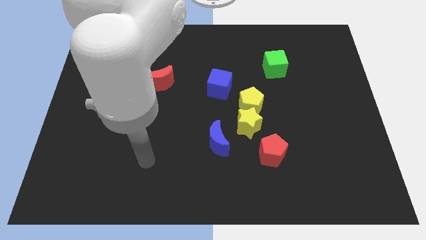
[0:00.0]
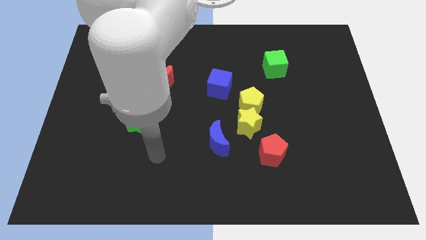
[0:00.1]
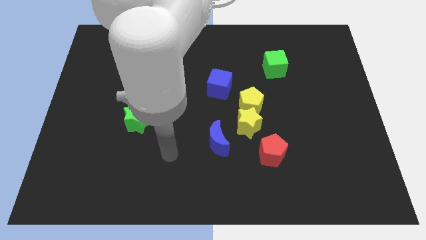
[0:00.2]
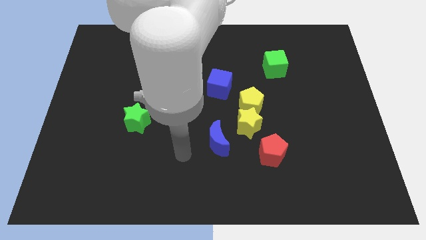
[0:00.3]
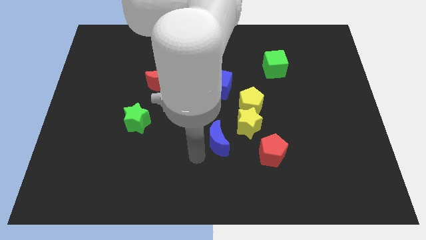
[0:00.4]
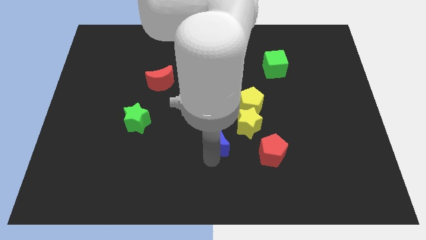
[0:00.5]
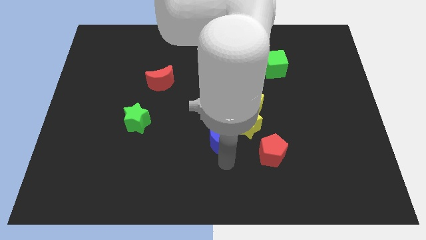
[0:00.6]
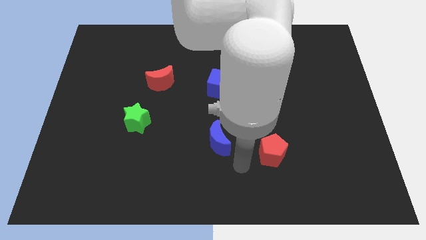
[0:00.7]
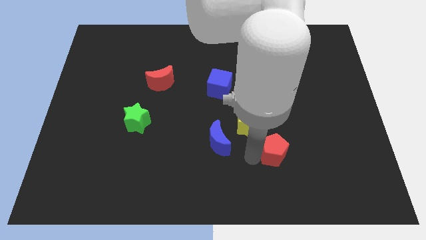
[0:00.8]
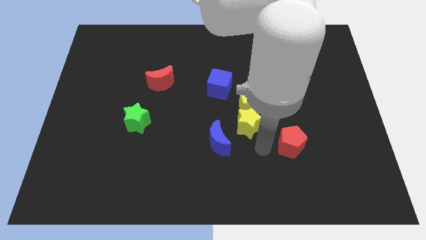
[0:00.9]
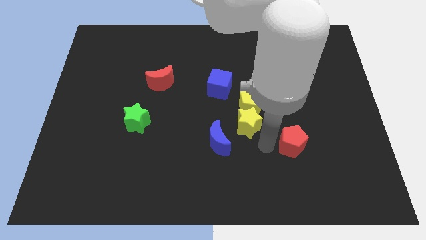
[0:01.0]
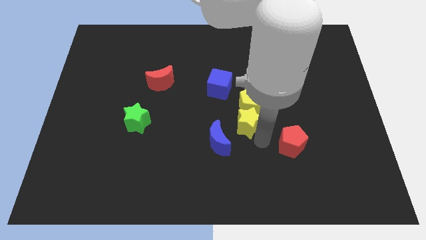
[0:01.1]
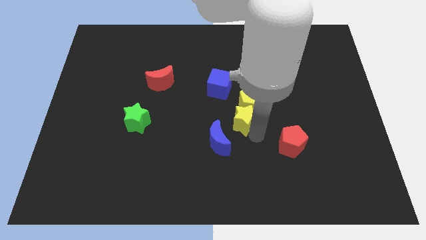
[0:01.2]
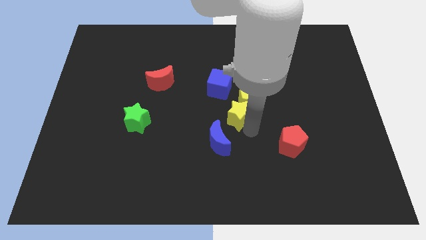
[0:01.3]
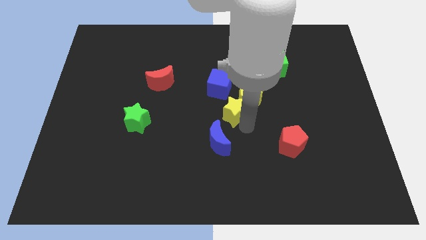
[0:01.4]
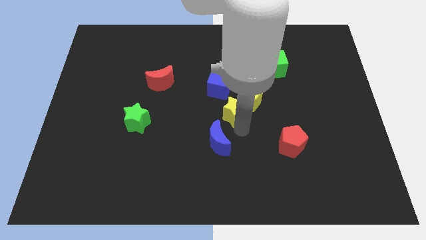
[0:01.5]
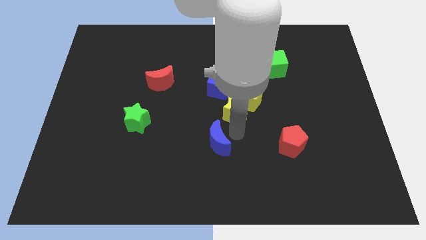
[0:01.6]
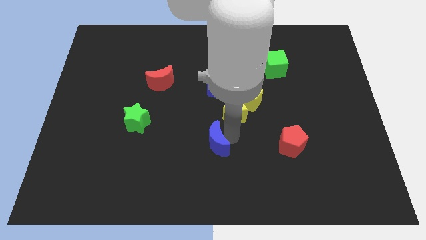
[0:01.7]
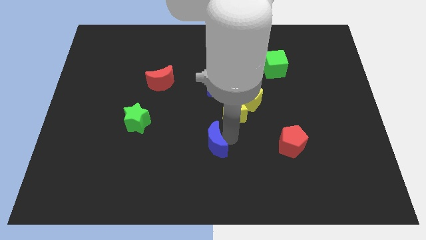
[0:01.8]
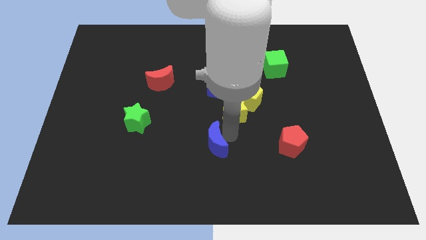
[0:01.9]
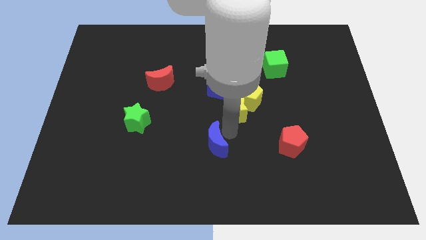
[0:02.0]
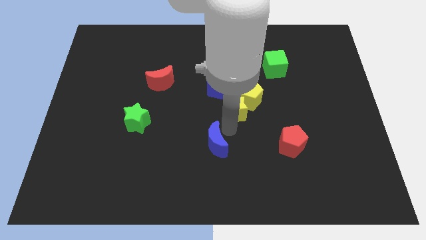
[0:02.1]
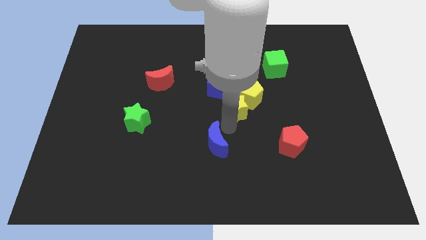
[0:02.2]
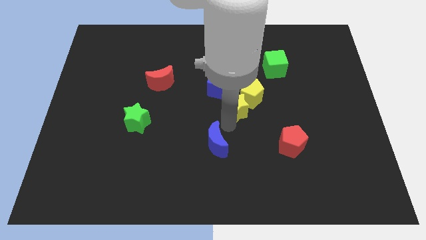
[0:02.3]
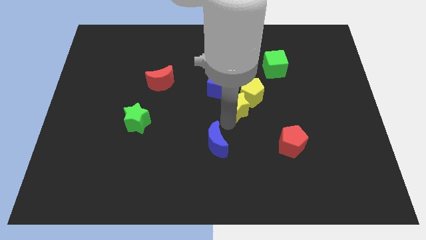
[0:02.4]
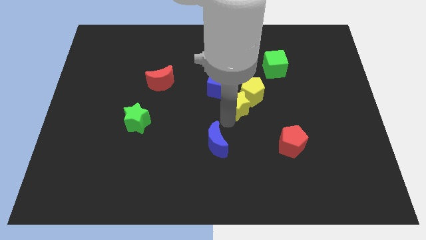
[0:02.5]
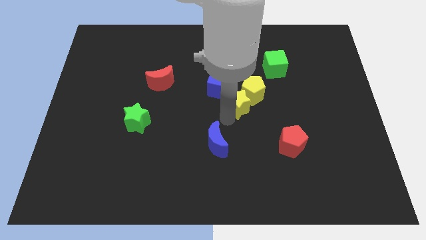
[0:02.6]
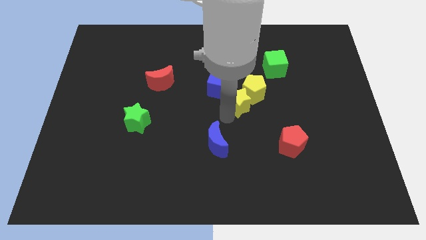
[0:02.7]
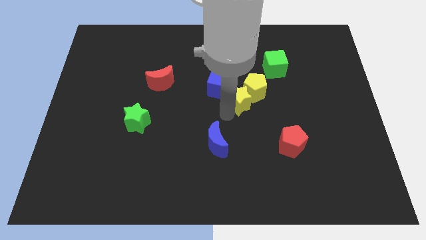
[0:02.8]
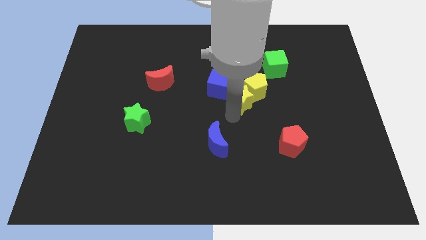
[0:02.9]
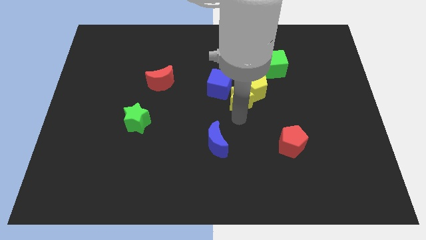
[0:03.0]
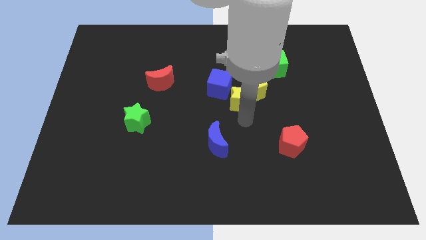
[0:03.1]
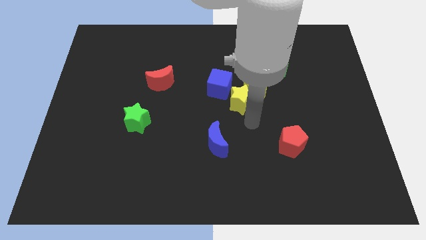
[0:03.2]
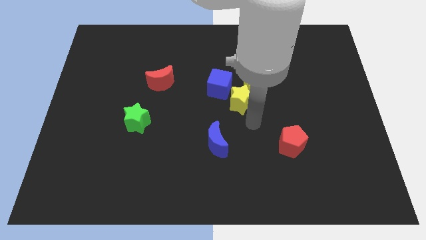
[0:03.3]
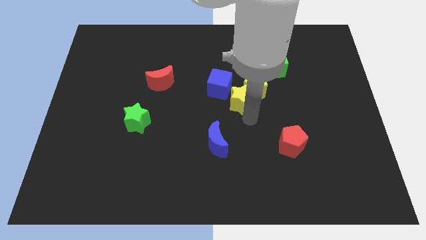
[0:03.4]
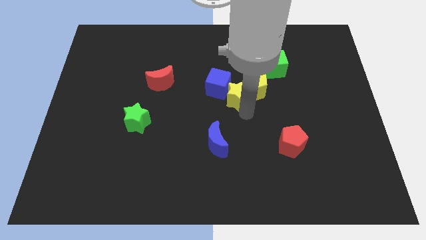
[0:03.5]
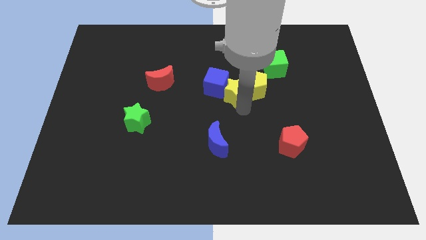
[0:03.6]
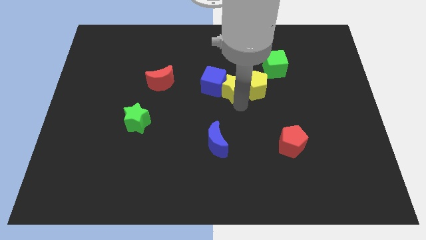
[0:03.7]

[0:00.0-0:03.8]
move the yellow star away from the group of blocks

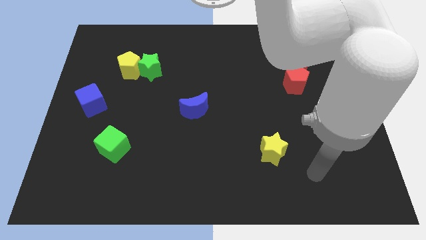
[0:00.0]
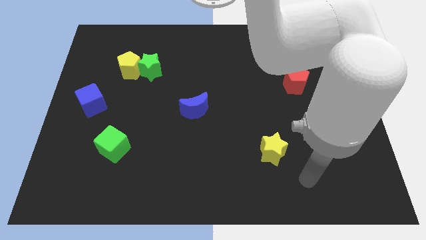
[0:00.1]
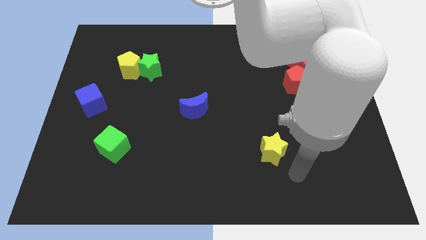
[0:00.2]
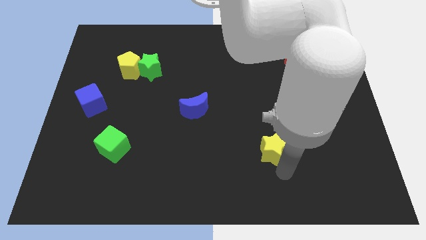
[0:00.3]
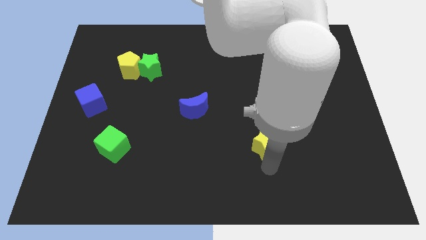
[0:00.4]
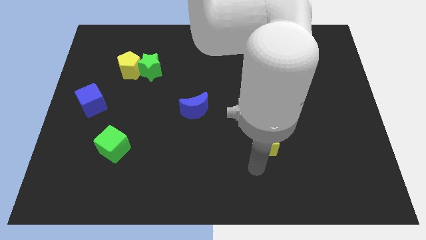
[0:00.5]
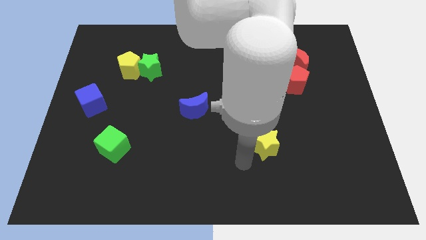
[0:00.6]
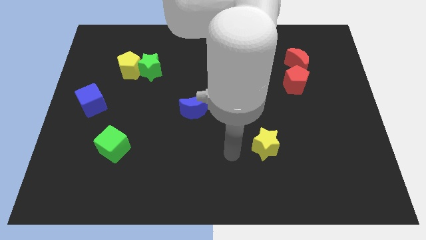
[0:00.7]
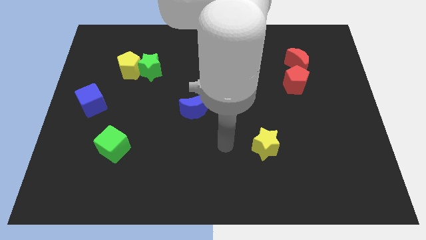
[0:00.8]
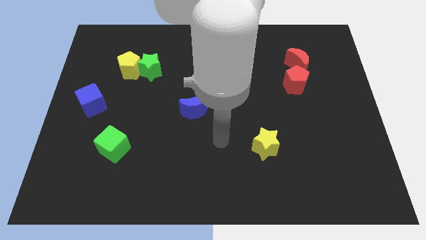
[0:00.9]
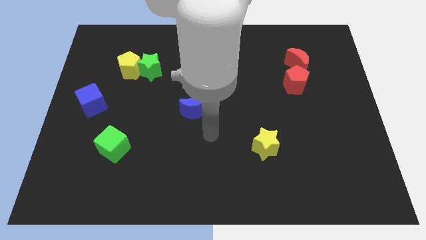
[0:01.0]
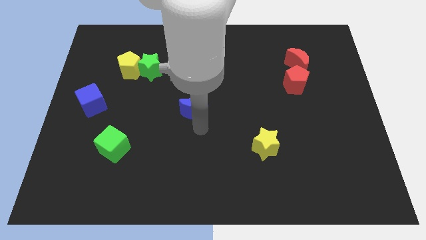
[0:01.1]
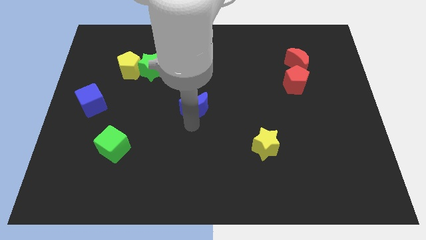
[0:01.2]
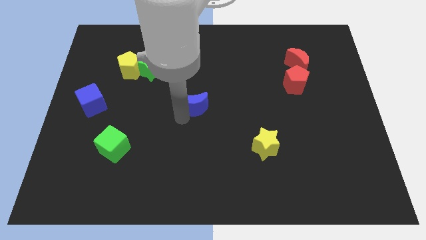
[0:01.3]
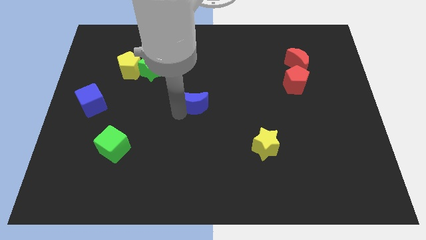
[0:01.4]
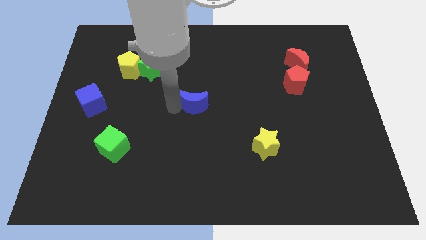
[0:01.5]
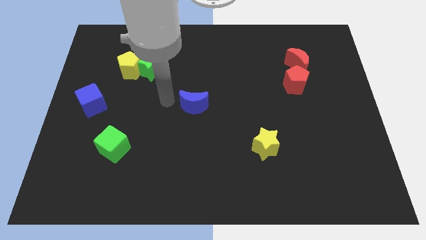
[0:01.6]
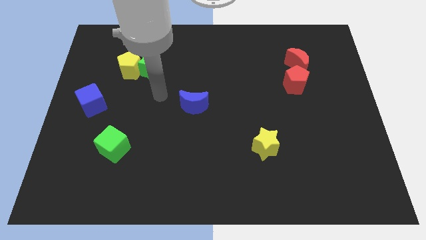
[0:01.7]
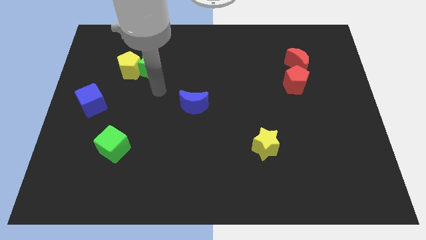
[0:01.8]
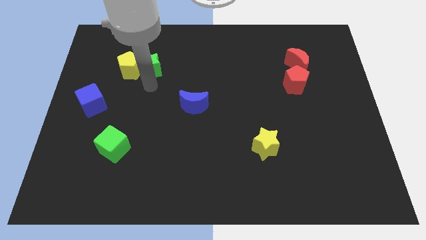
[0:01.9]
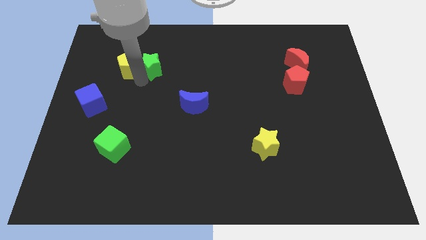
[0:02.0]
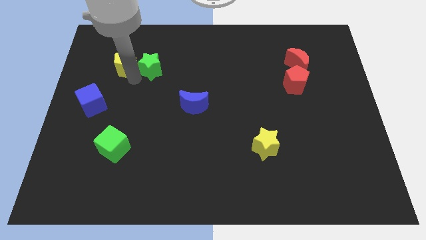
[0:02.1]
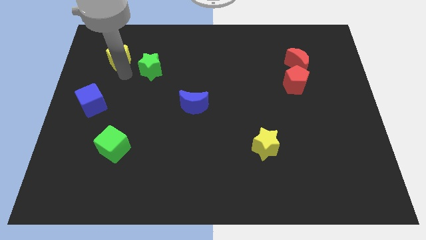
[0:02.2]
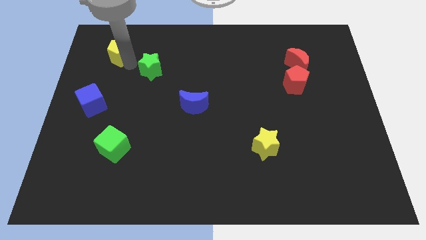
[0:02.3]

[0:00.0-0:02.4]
separate the green star from the yellow pentagon

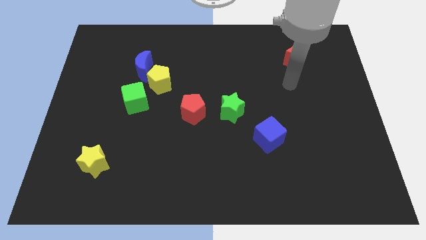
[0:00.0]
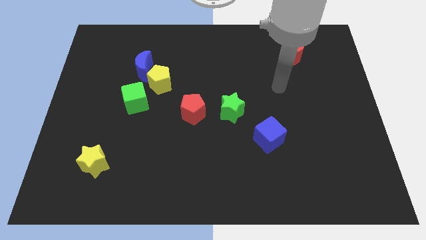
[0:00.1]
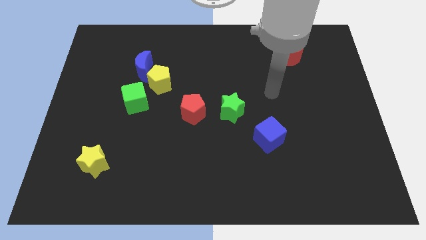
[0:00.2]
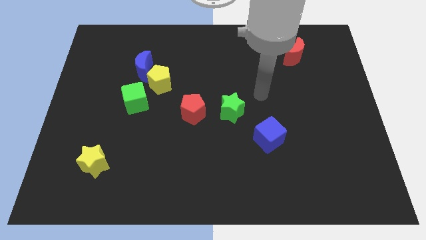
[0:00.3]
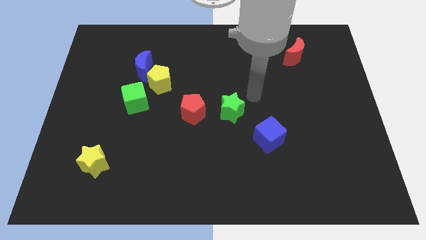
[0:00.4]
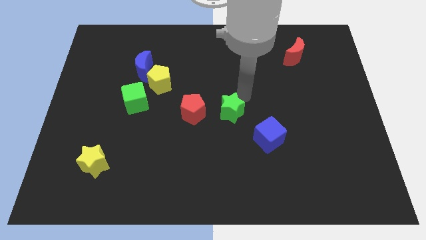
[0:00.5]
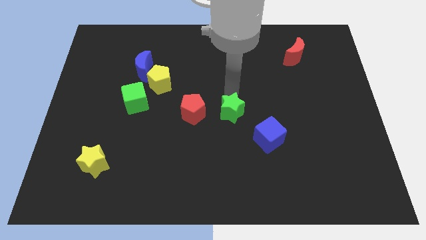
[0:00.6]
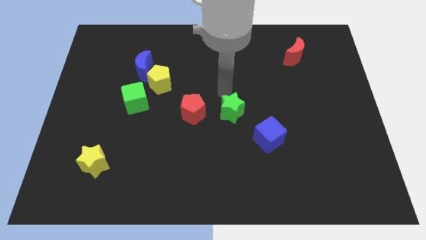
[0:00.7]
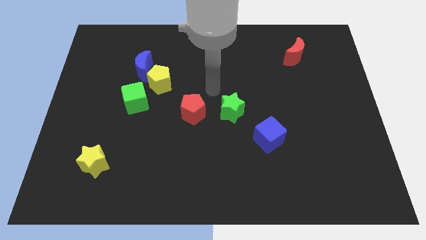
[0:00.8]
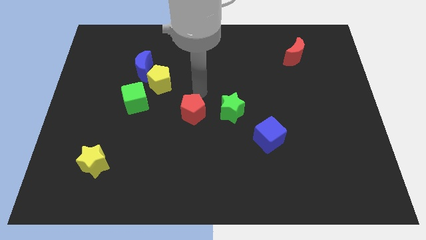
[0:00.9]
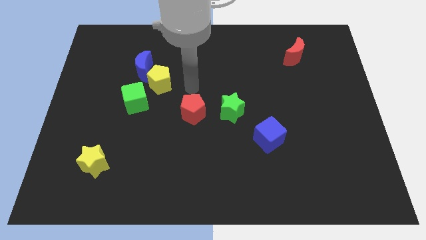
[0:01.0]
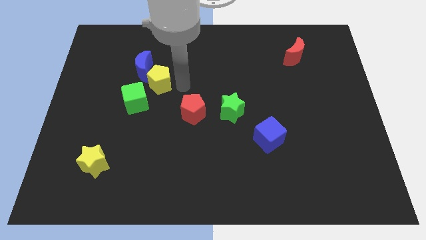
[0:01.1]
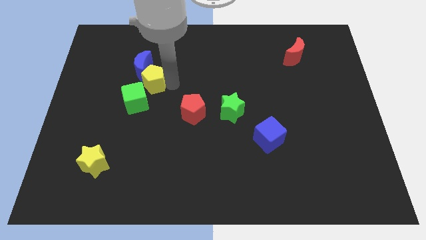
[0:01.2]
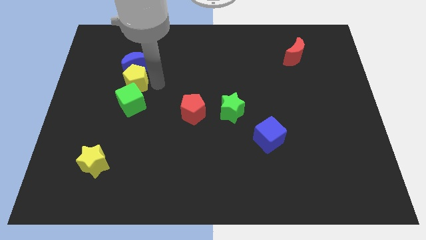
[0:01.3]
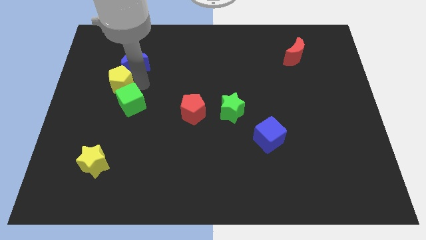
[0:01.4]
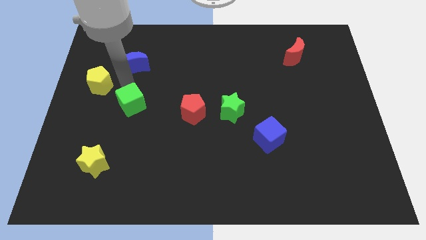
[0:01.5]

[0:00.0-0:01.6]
move the blue moon away from the yellow pentagon

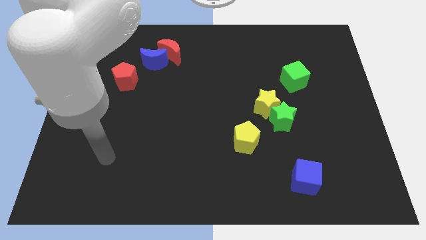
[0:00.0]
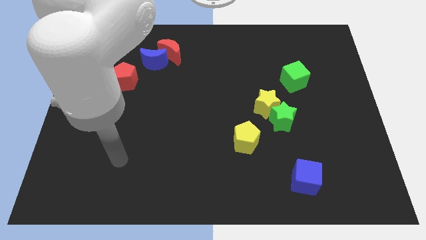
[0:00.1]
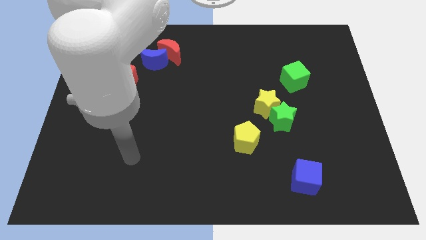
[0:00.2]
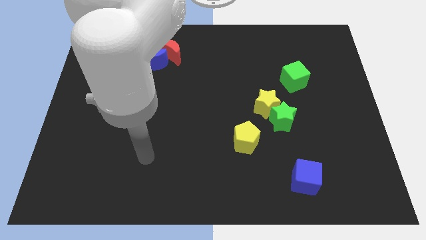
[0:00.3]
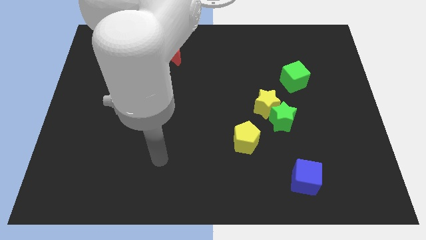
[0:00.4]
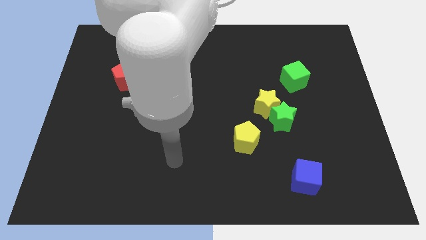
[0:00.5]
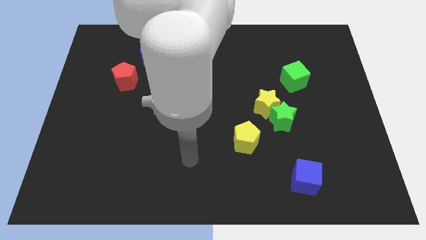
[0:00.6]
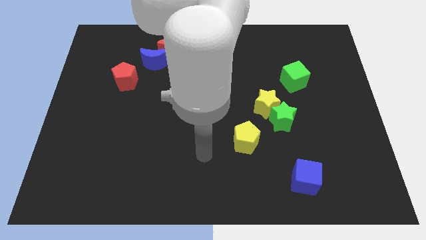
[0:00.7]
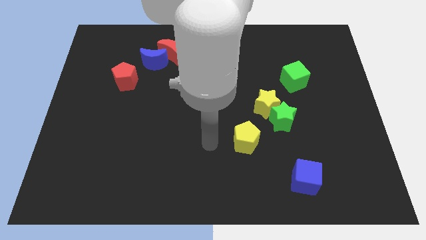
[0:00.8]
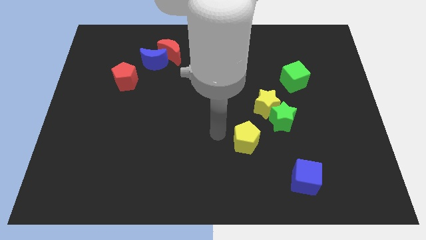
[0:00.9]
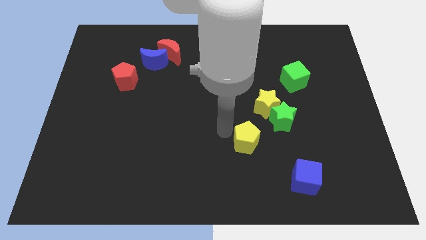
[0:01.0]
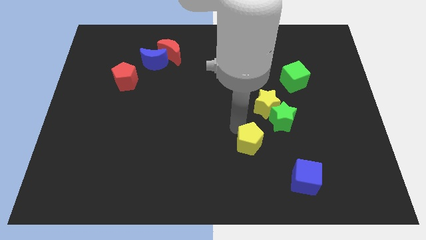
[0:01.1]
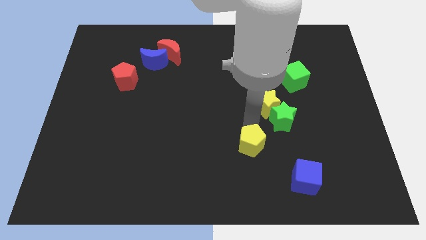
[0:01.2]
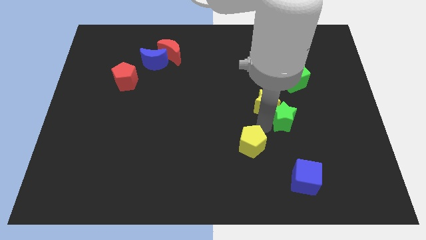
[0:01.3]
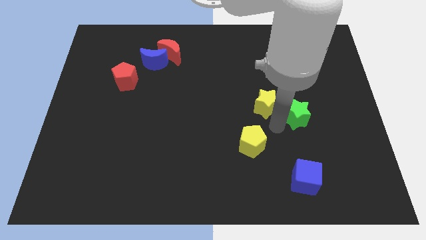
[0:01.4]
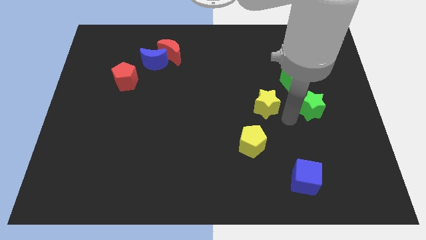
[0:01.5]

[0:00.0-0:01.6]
pull the yellow star apart from the green star
